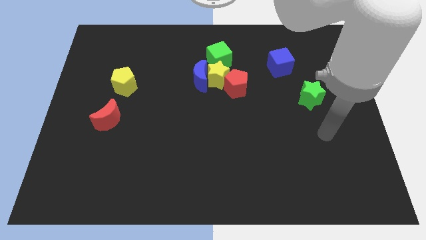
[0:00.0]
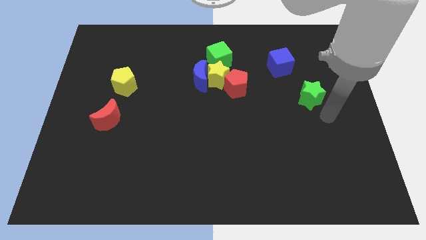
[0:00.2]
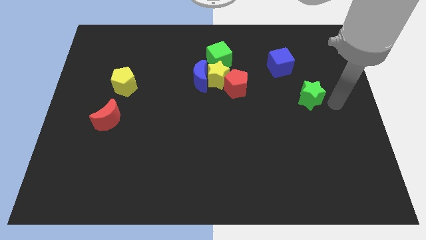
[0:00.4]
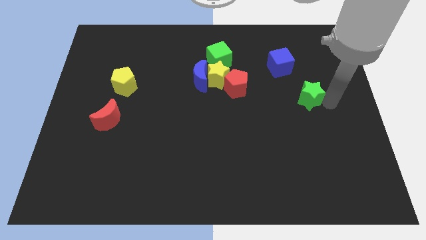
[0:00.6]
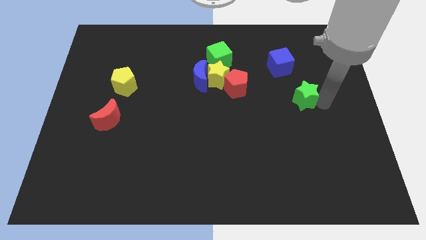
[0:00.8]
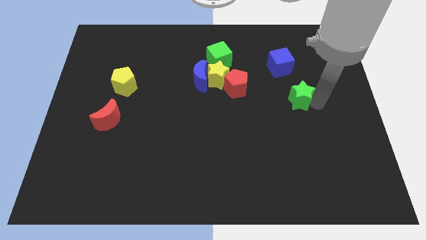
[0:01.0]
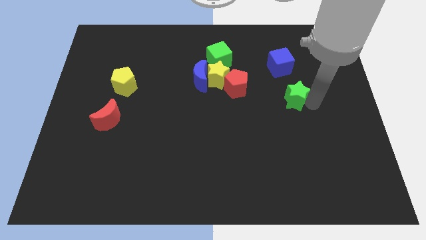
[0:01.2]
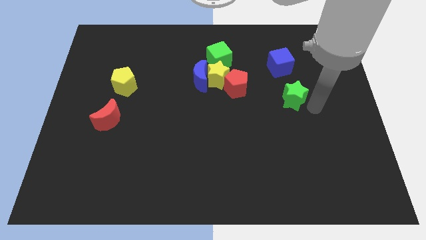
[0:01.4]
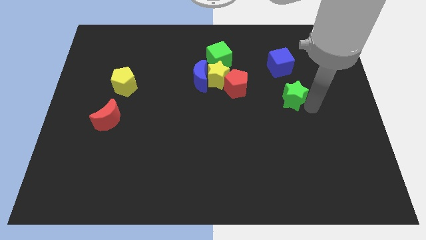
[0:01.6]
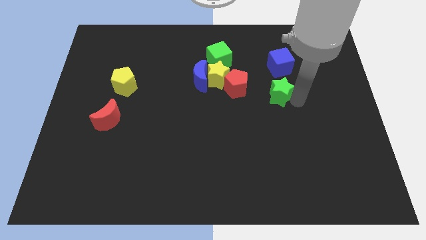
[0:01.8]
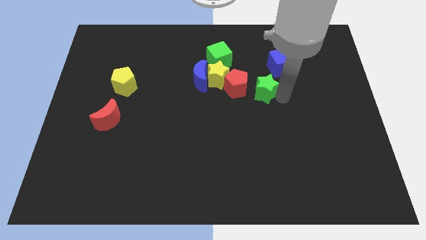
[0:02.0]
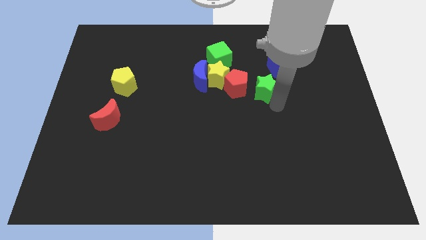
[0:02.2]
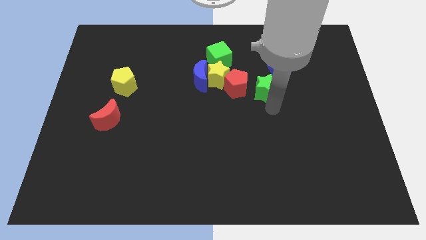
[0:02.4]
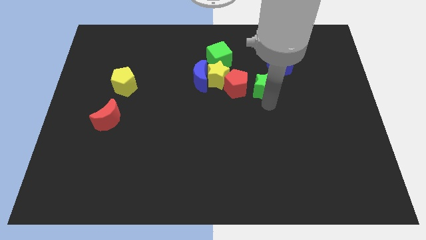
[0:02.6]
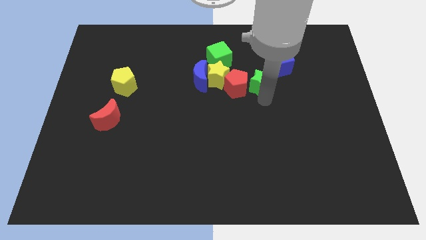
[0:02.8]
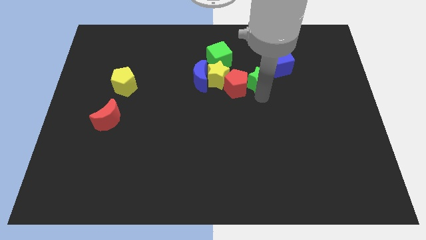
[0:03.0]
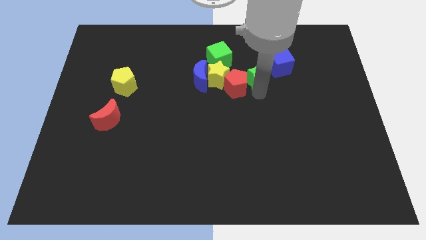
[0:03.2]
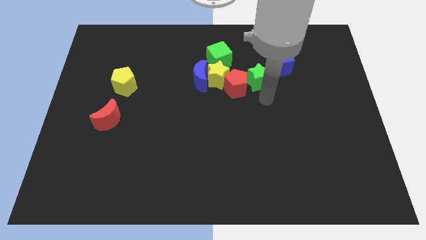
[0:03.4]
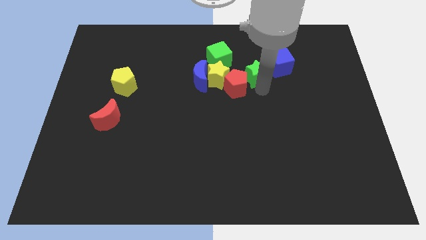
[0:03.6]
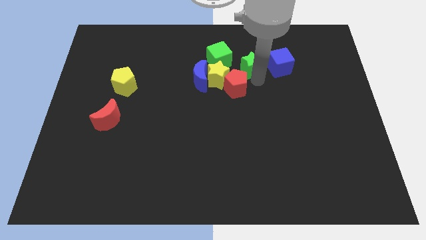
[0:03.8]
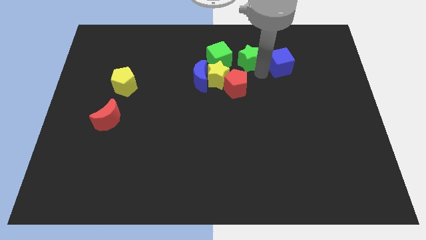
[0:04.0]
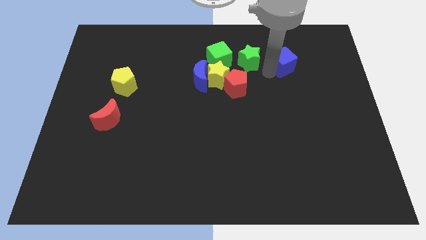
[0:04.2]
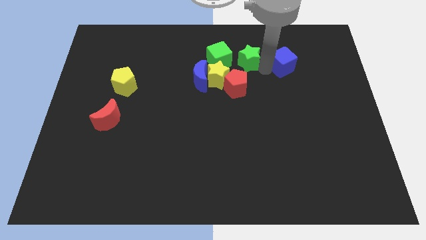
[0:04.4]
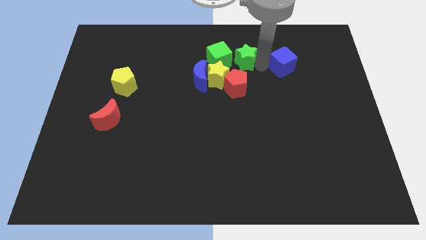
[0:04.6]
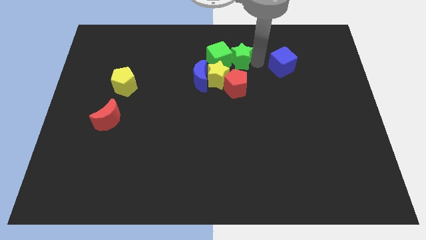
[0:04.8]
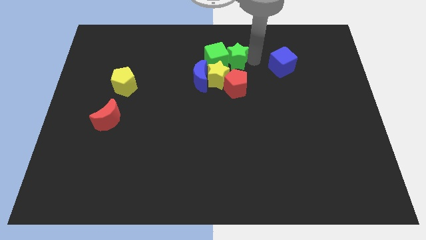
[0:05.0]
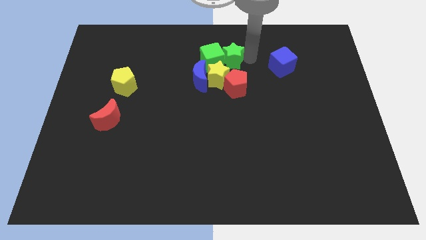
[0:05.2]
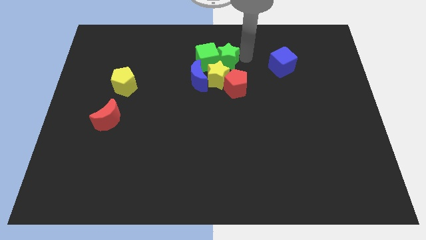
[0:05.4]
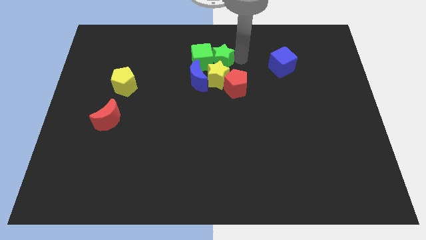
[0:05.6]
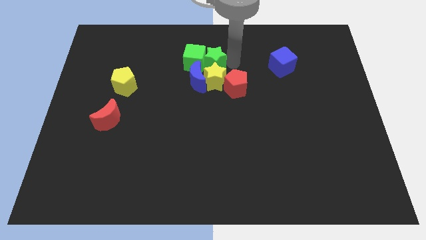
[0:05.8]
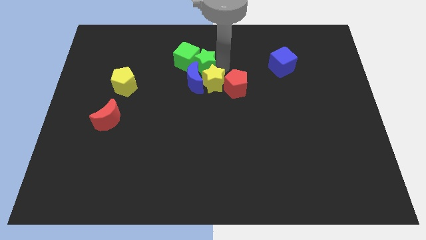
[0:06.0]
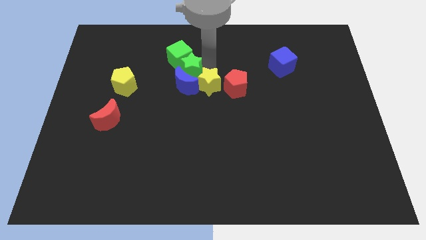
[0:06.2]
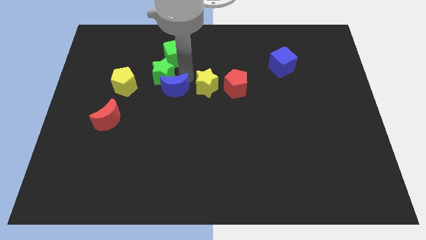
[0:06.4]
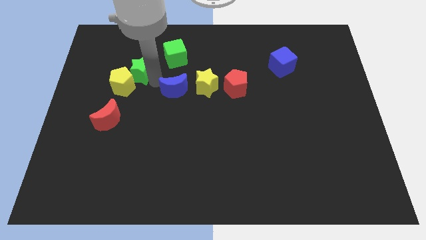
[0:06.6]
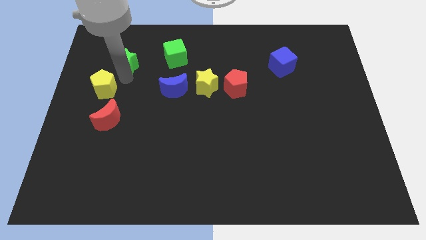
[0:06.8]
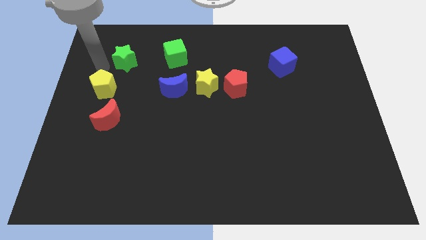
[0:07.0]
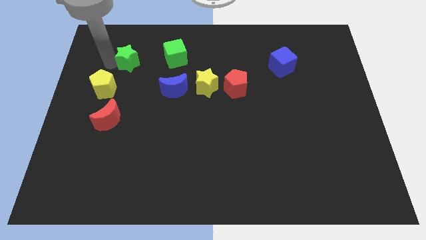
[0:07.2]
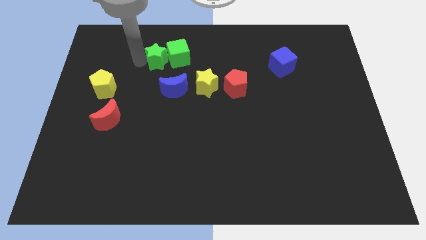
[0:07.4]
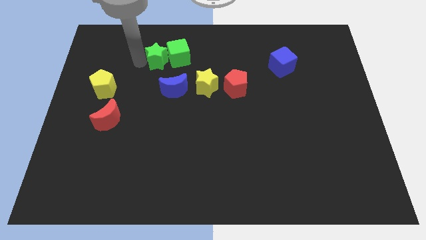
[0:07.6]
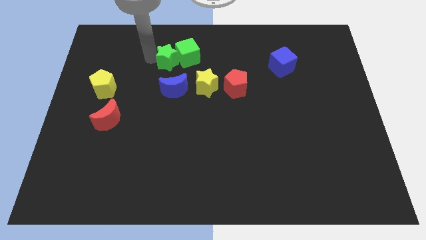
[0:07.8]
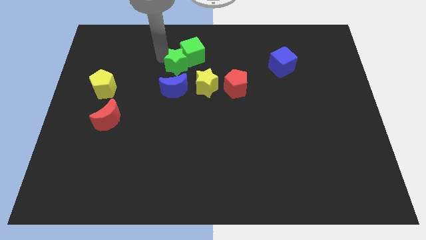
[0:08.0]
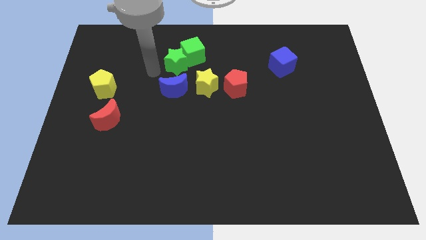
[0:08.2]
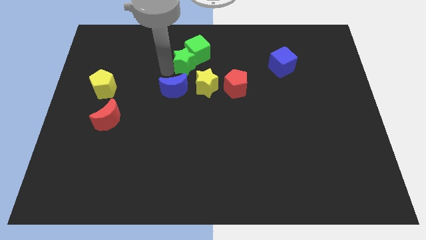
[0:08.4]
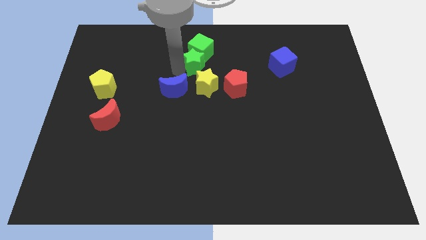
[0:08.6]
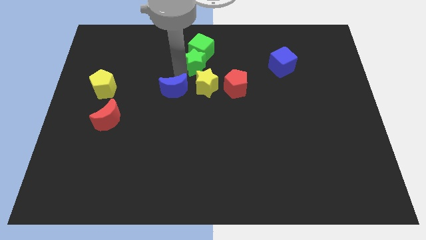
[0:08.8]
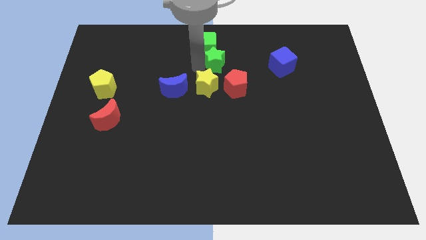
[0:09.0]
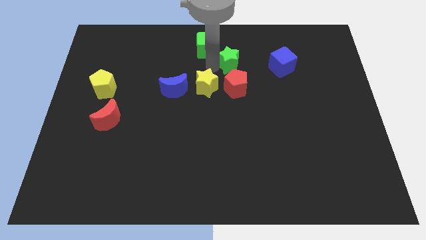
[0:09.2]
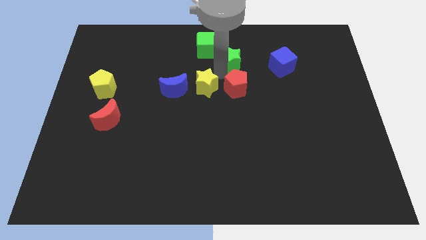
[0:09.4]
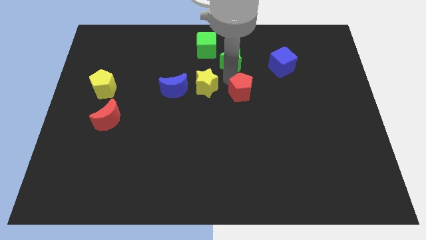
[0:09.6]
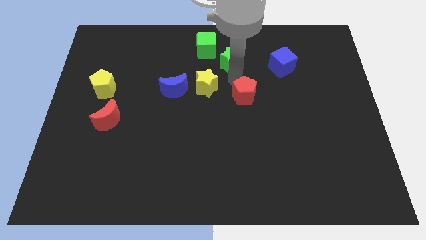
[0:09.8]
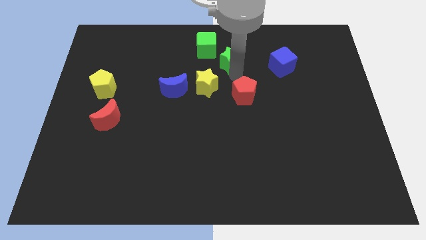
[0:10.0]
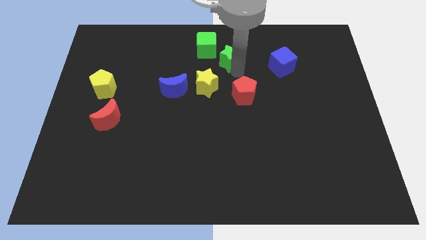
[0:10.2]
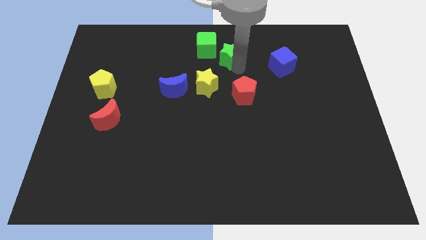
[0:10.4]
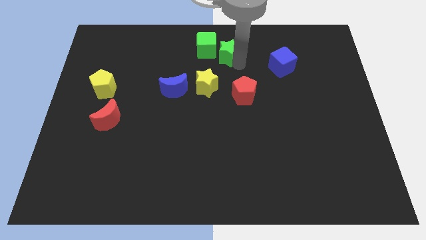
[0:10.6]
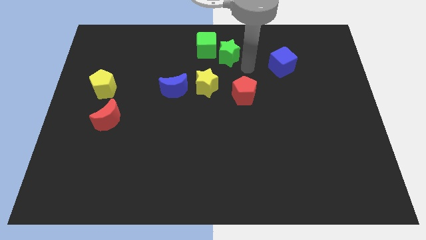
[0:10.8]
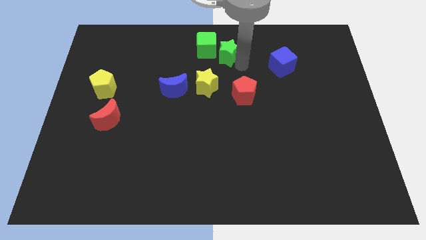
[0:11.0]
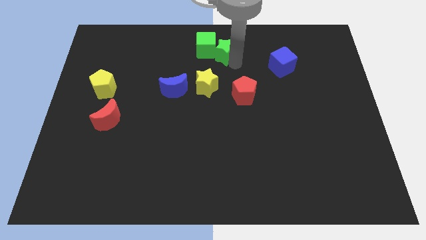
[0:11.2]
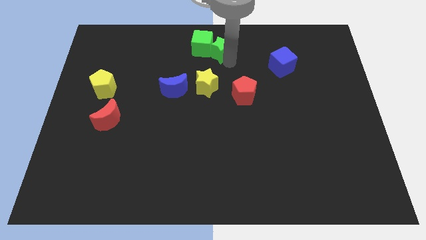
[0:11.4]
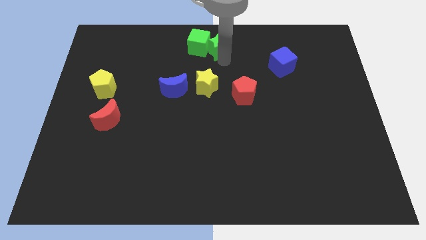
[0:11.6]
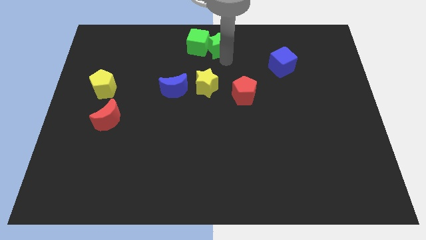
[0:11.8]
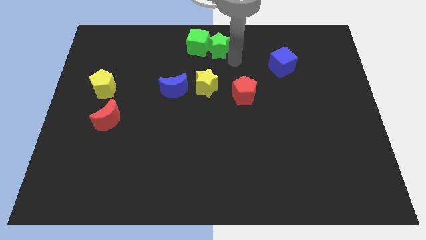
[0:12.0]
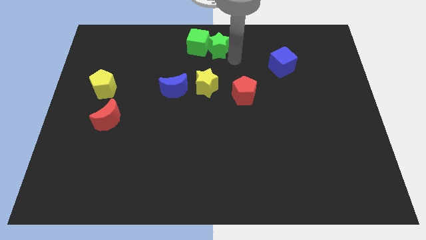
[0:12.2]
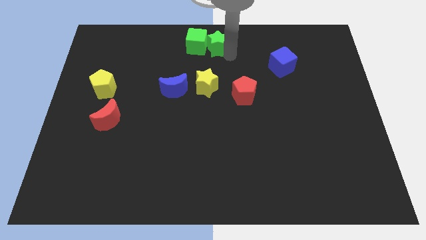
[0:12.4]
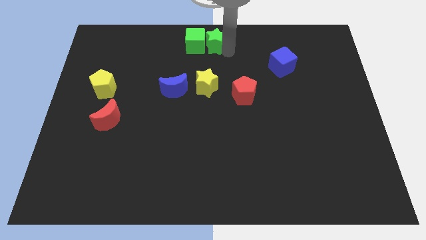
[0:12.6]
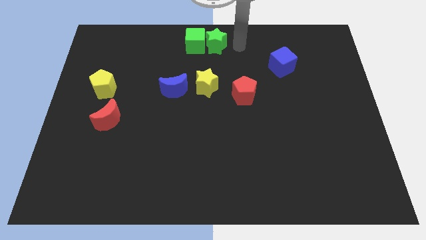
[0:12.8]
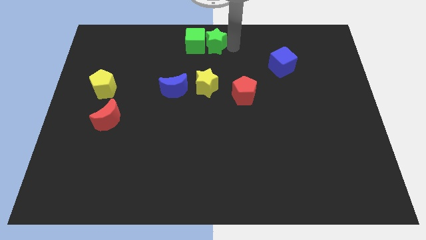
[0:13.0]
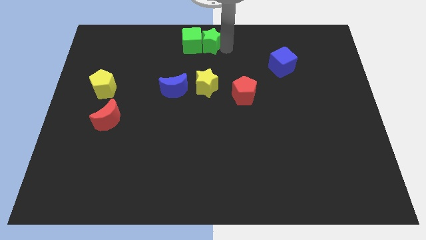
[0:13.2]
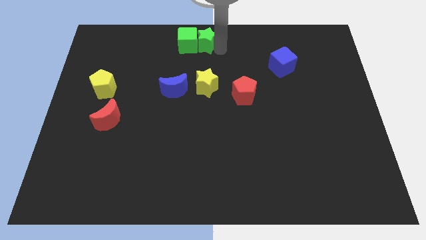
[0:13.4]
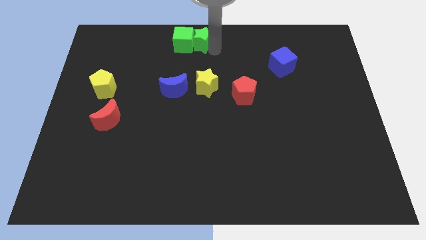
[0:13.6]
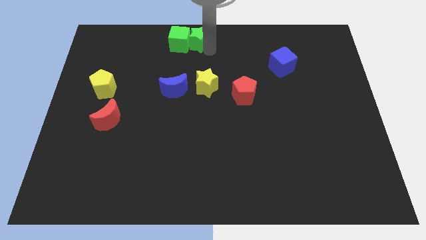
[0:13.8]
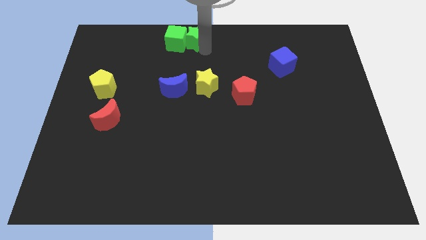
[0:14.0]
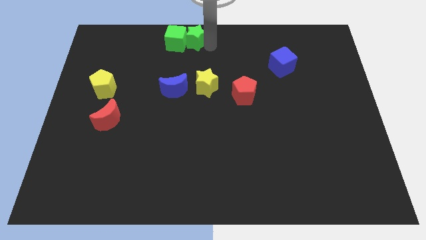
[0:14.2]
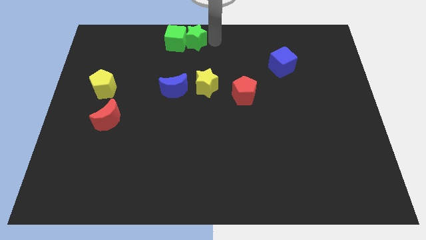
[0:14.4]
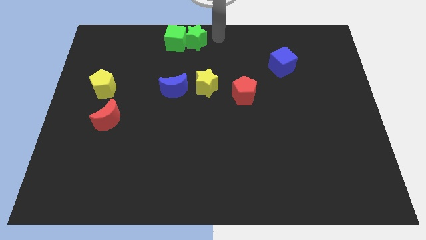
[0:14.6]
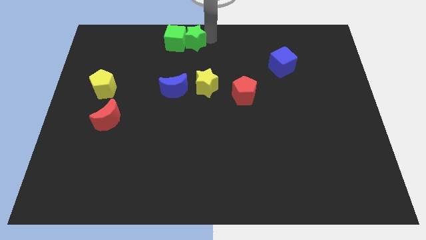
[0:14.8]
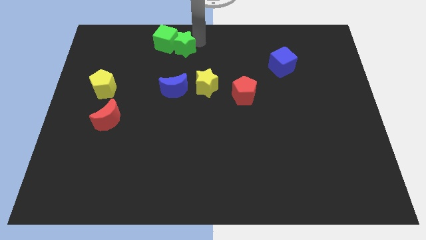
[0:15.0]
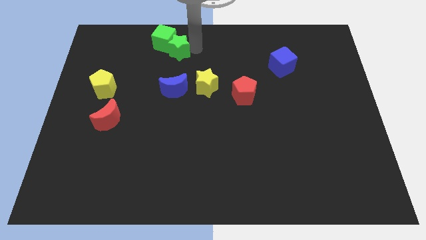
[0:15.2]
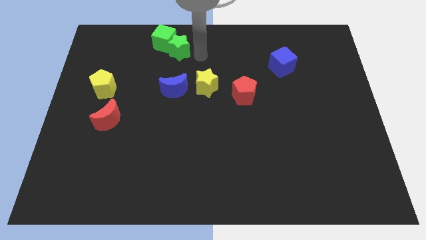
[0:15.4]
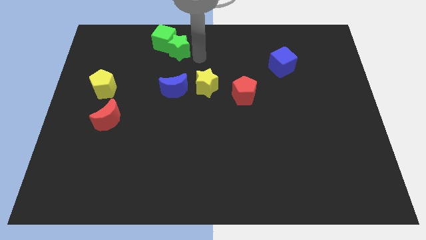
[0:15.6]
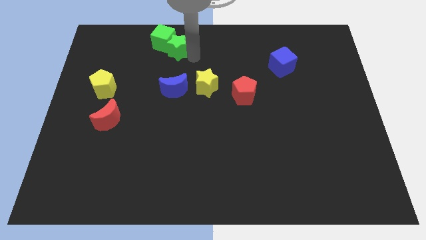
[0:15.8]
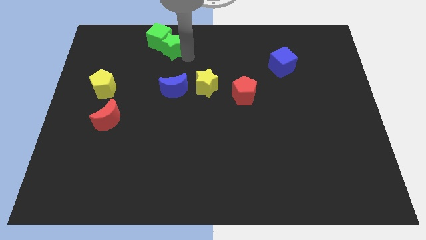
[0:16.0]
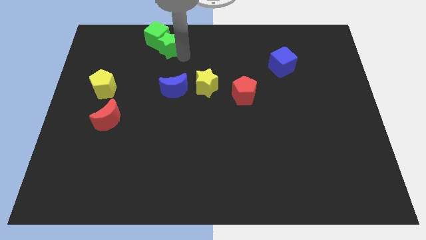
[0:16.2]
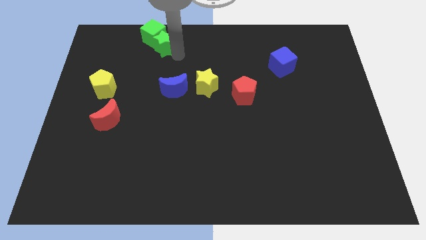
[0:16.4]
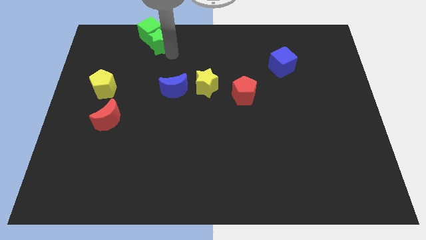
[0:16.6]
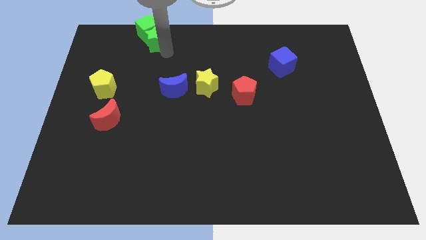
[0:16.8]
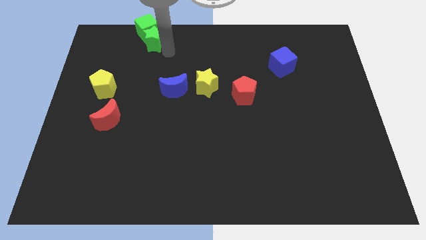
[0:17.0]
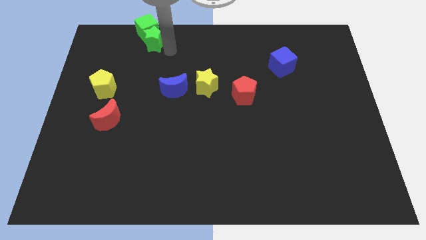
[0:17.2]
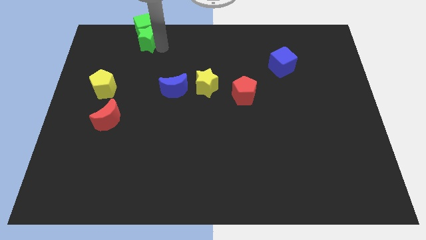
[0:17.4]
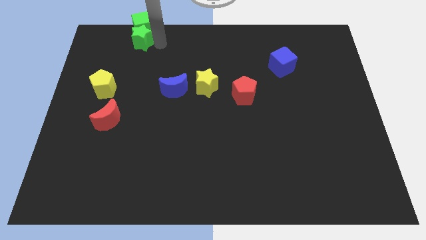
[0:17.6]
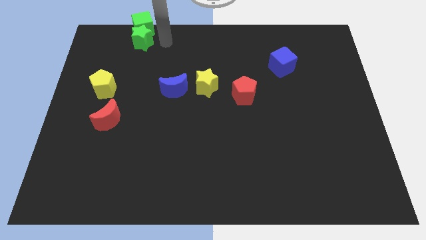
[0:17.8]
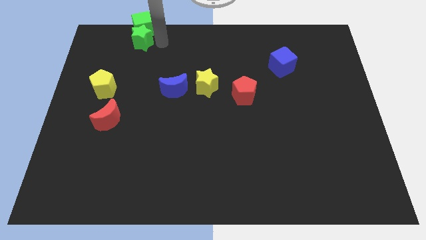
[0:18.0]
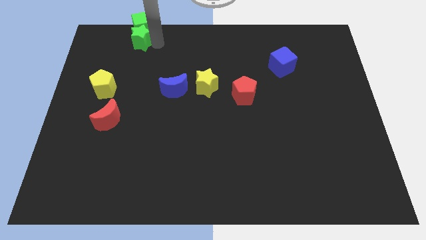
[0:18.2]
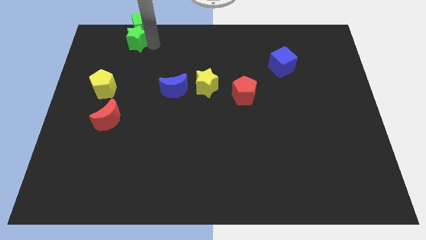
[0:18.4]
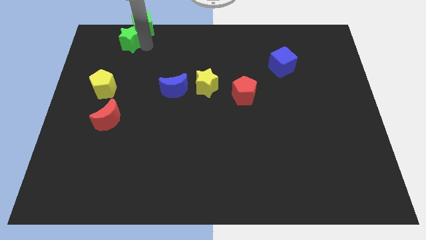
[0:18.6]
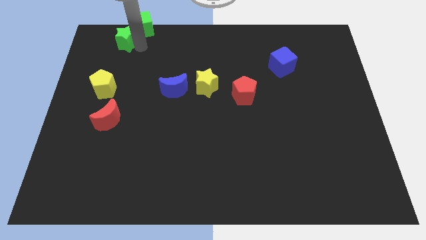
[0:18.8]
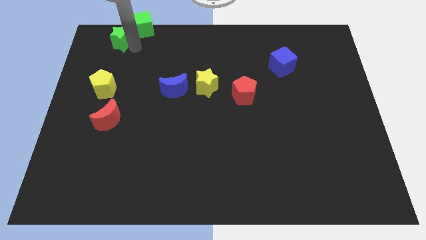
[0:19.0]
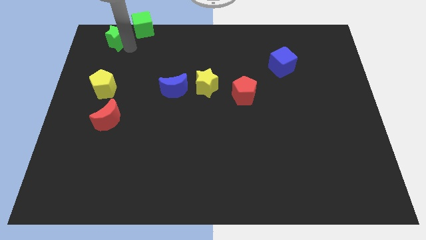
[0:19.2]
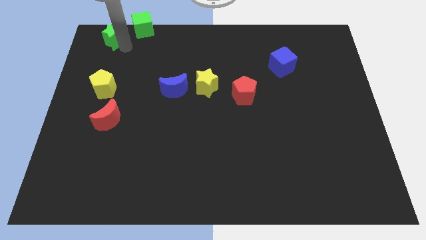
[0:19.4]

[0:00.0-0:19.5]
push the green star to the upper left corner
